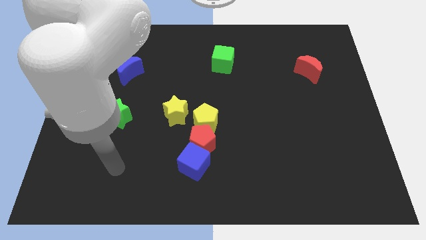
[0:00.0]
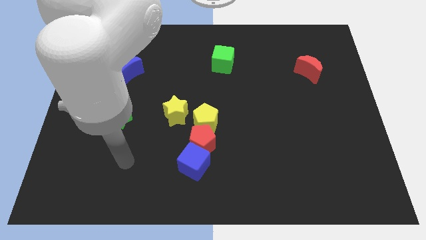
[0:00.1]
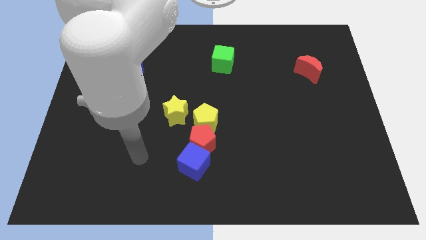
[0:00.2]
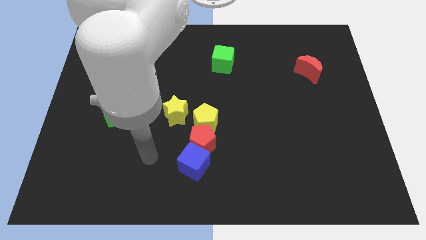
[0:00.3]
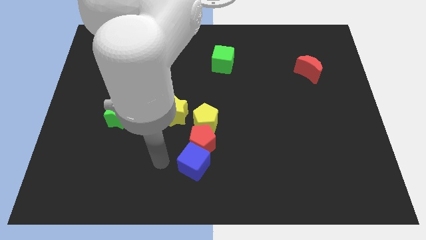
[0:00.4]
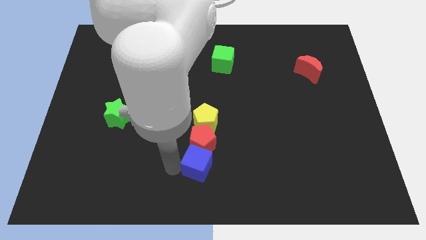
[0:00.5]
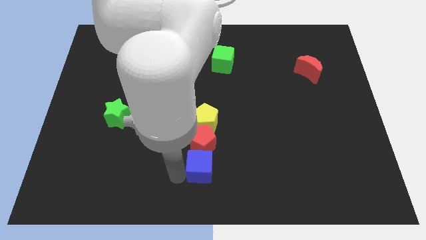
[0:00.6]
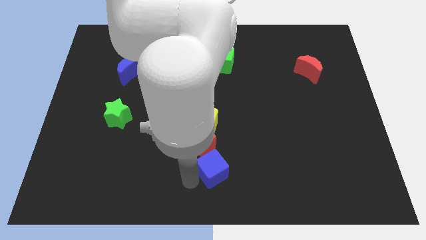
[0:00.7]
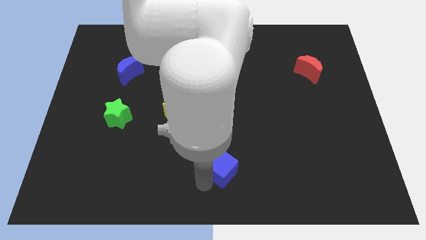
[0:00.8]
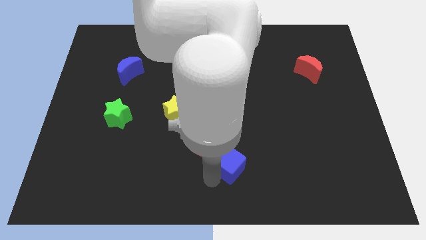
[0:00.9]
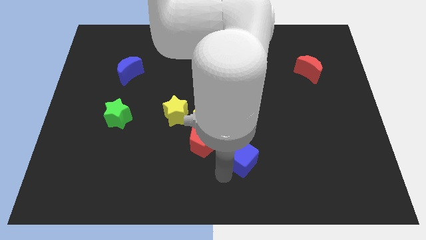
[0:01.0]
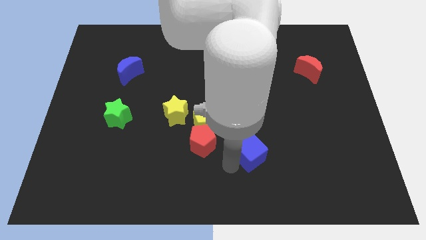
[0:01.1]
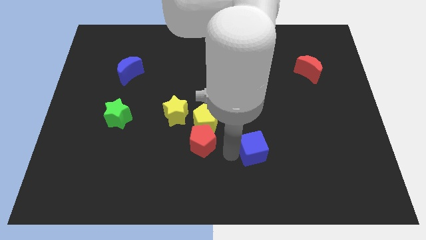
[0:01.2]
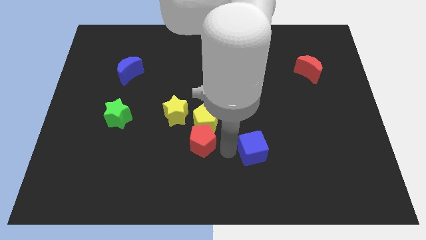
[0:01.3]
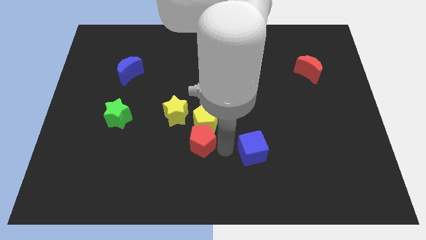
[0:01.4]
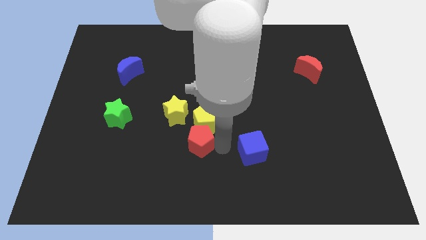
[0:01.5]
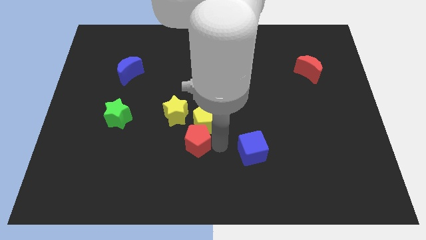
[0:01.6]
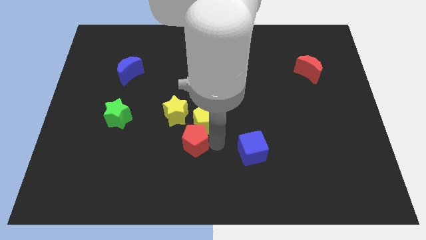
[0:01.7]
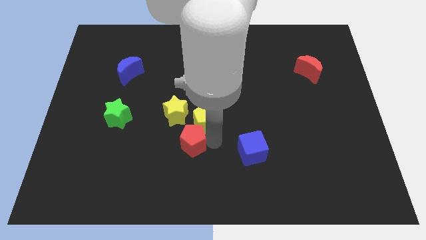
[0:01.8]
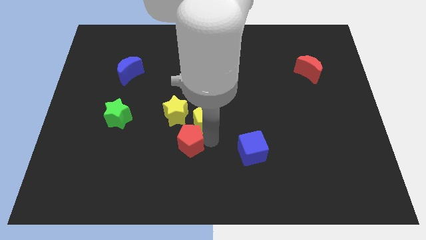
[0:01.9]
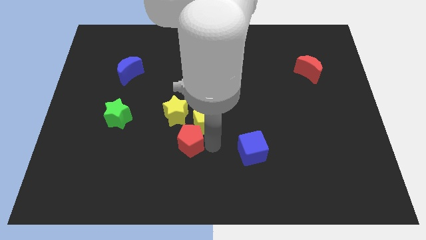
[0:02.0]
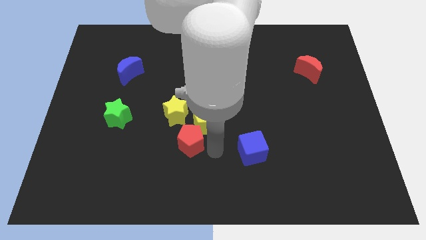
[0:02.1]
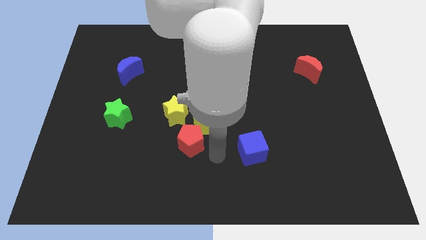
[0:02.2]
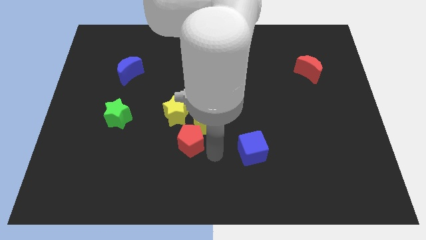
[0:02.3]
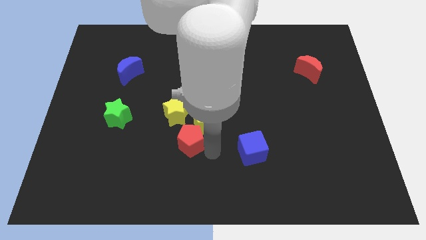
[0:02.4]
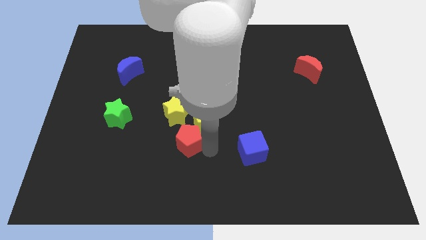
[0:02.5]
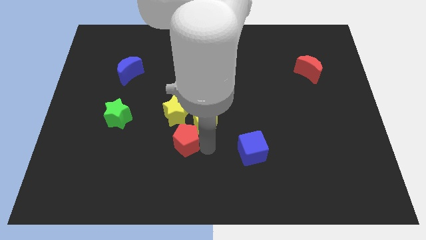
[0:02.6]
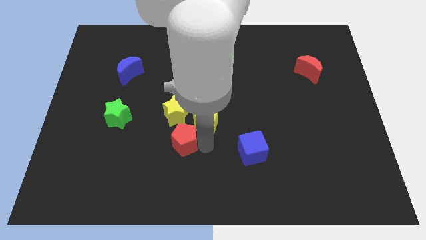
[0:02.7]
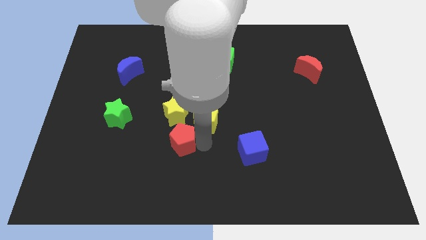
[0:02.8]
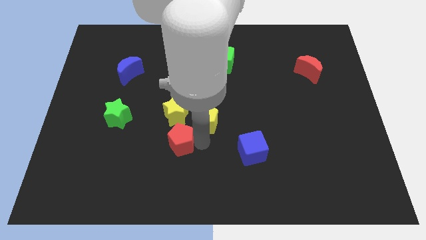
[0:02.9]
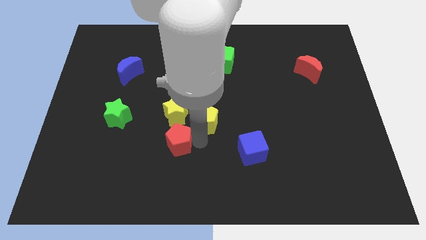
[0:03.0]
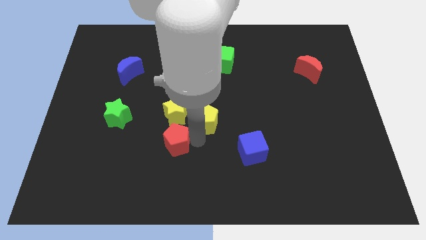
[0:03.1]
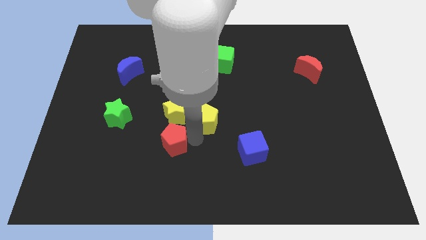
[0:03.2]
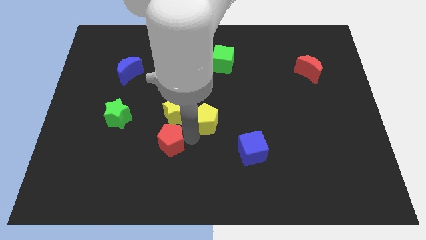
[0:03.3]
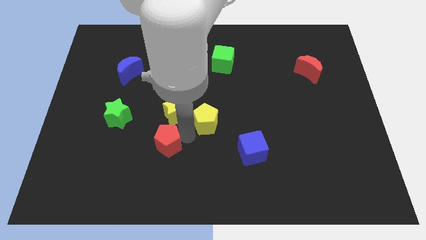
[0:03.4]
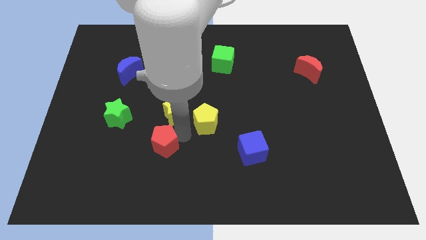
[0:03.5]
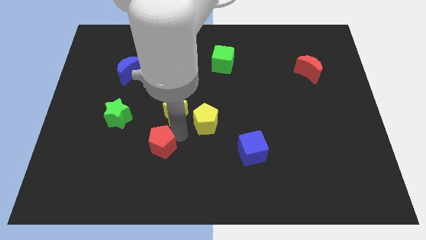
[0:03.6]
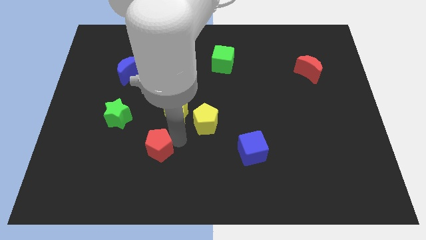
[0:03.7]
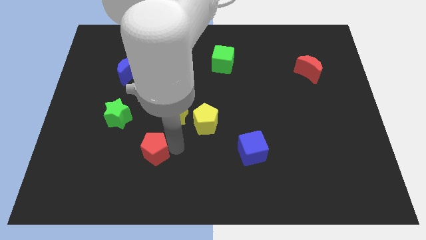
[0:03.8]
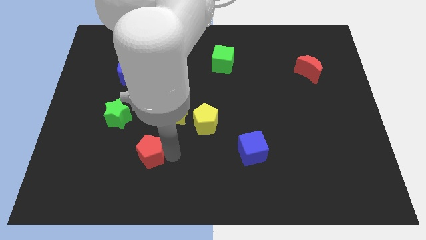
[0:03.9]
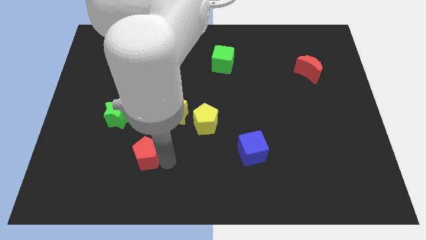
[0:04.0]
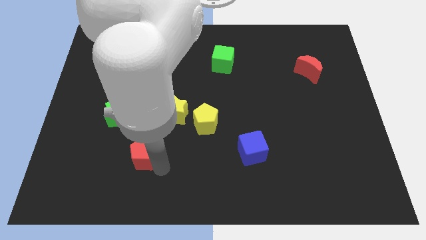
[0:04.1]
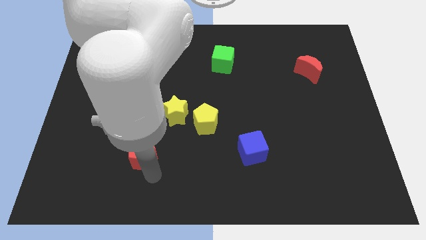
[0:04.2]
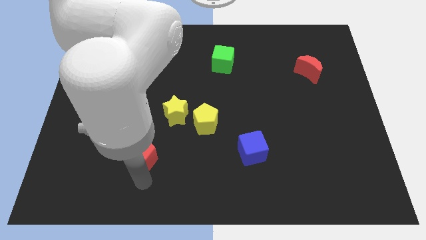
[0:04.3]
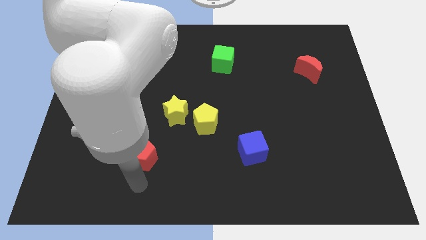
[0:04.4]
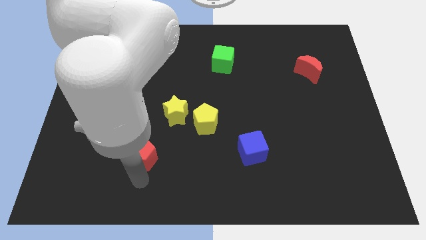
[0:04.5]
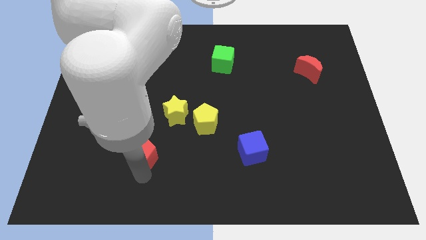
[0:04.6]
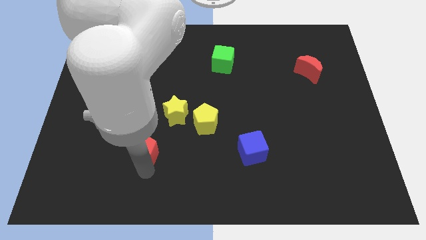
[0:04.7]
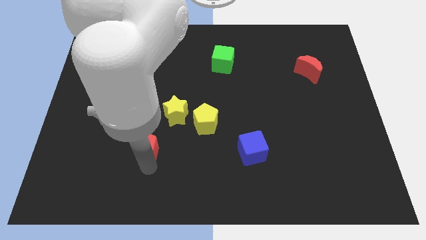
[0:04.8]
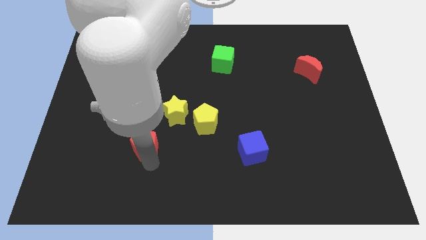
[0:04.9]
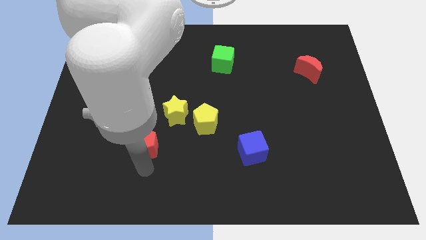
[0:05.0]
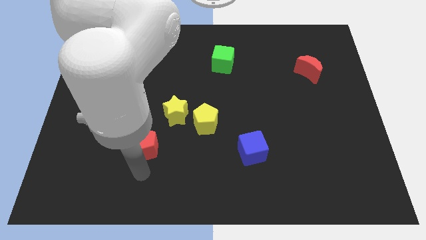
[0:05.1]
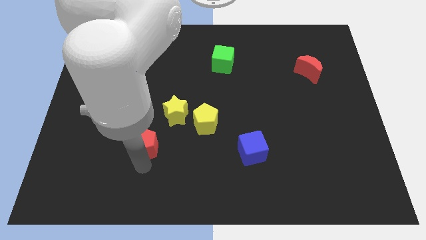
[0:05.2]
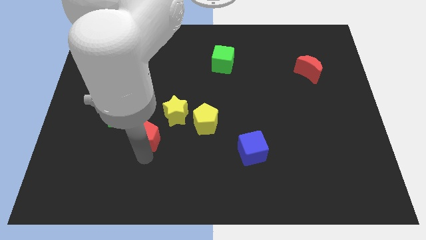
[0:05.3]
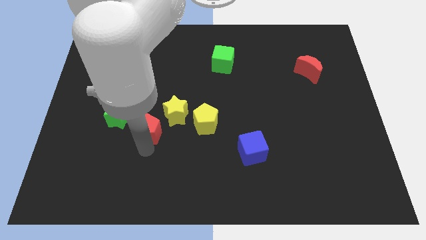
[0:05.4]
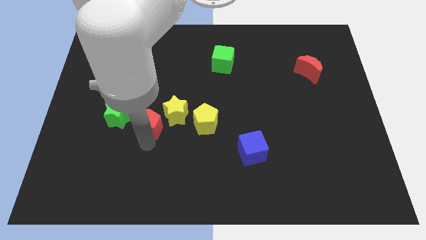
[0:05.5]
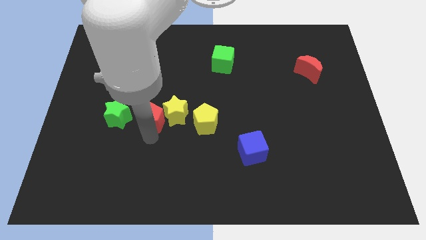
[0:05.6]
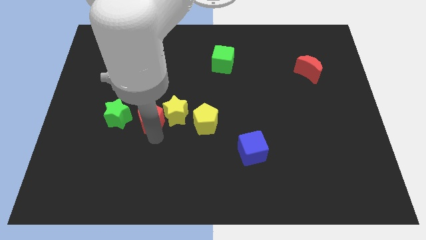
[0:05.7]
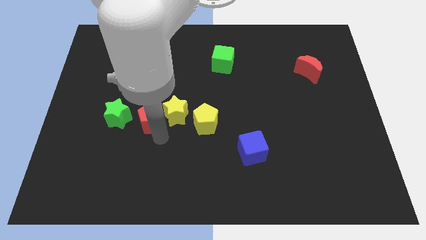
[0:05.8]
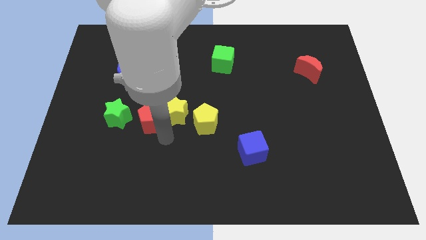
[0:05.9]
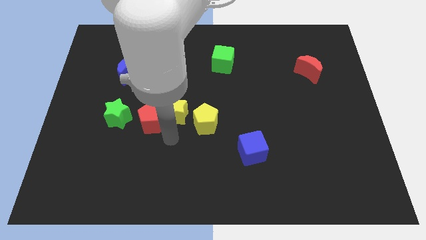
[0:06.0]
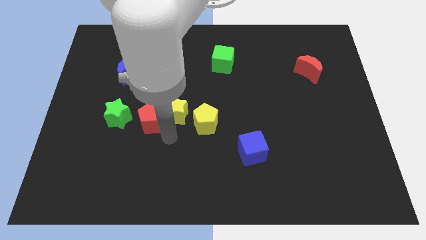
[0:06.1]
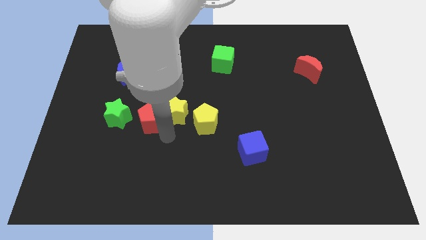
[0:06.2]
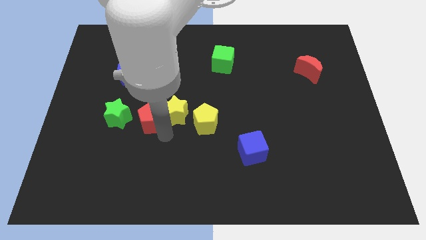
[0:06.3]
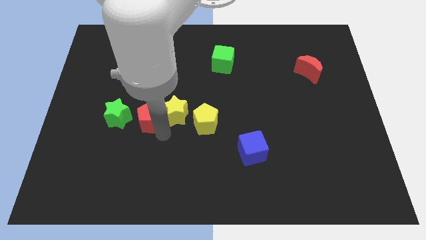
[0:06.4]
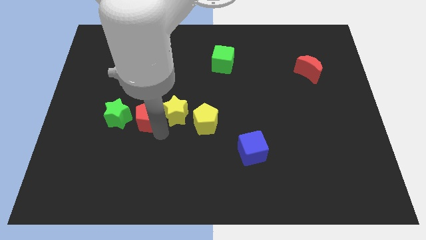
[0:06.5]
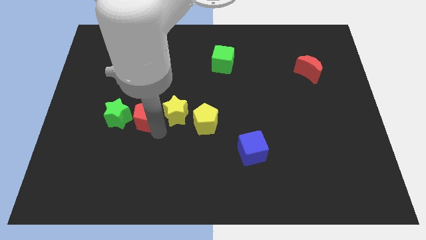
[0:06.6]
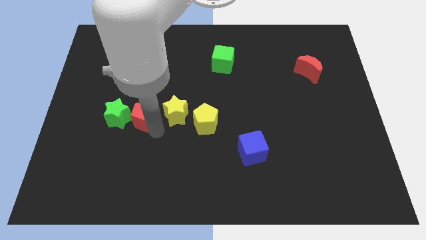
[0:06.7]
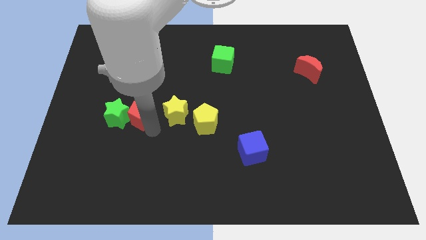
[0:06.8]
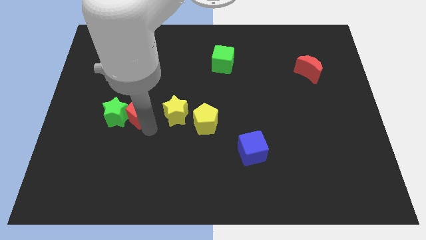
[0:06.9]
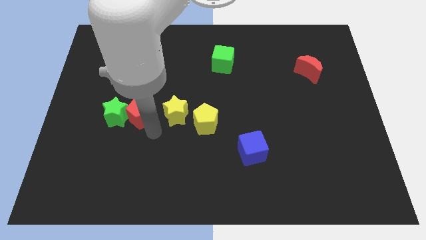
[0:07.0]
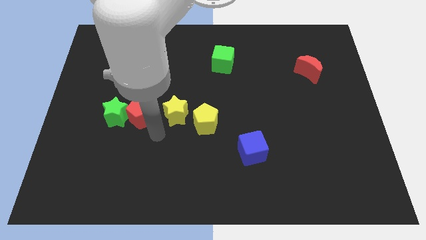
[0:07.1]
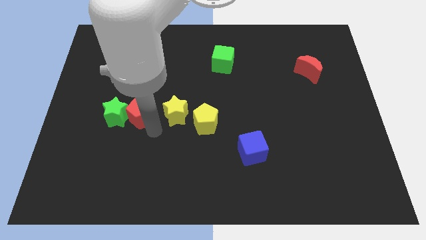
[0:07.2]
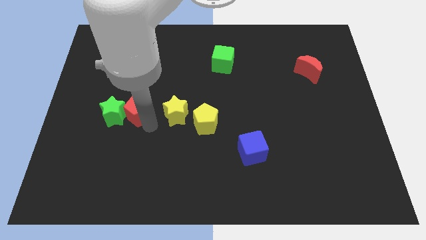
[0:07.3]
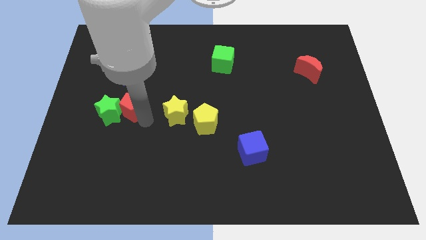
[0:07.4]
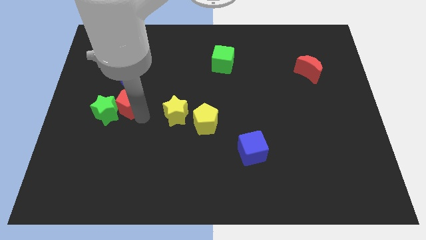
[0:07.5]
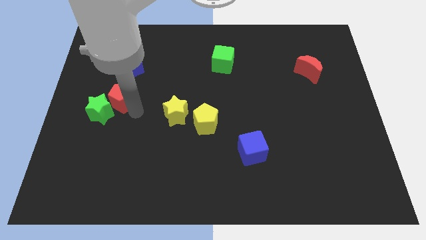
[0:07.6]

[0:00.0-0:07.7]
move the red pentagon up and to the left diagonally

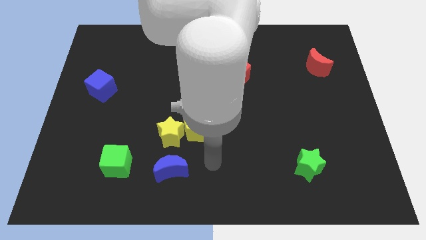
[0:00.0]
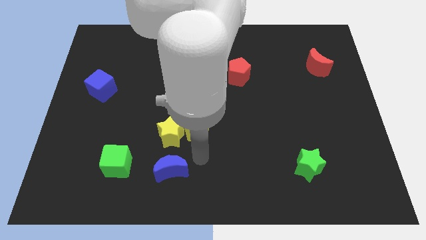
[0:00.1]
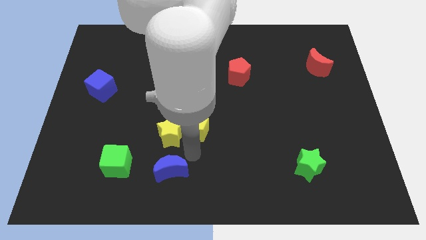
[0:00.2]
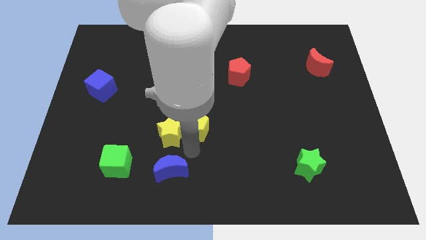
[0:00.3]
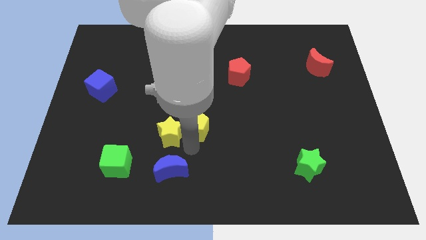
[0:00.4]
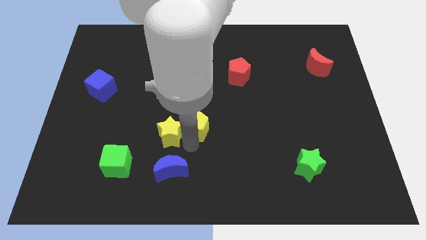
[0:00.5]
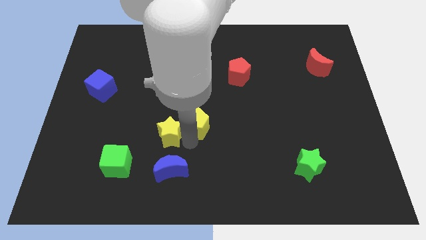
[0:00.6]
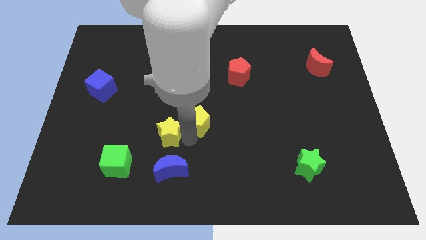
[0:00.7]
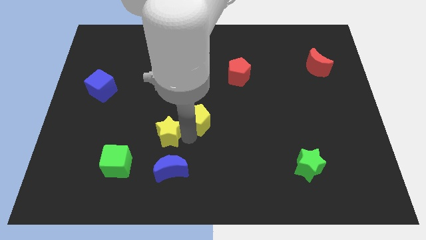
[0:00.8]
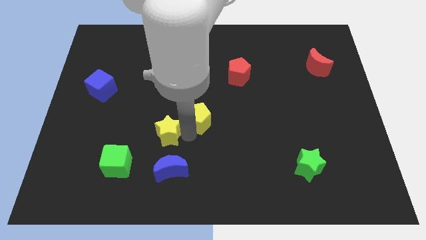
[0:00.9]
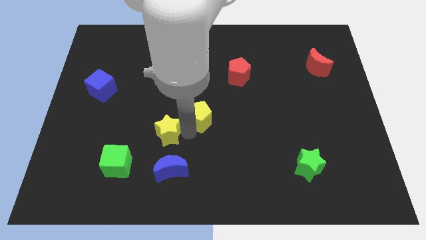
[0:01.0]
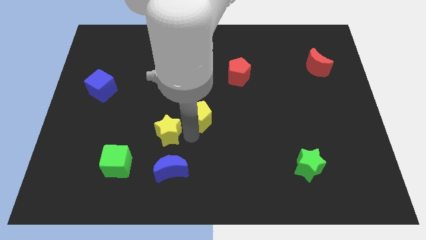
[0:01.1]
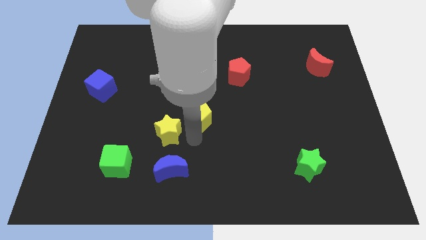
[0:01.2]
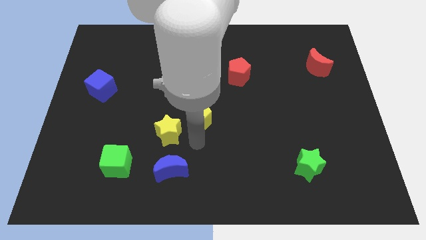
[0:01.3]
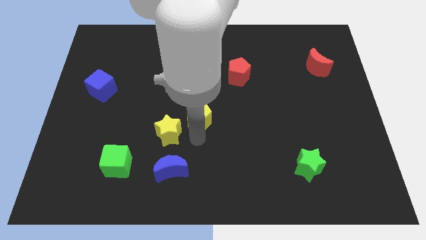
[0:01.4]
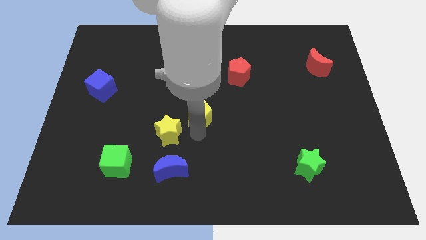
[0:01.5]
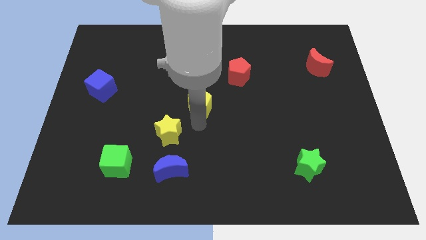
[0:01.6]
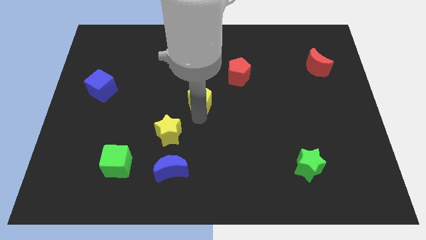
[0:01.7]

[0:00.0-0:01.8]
slightly slide the yellow pentagon up
